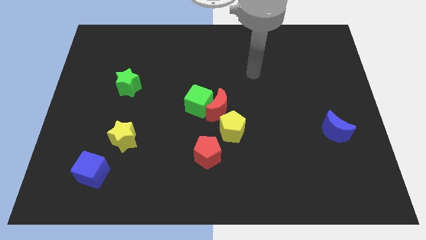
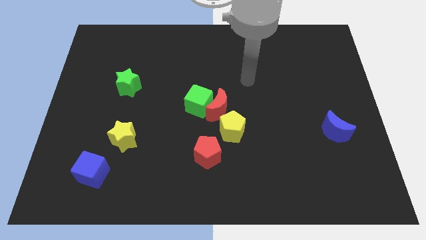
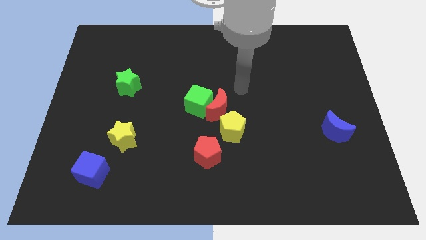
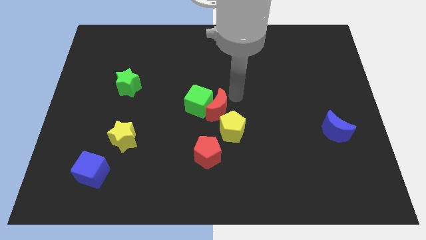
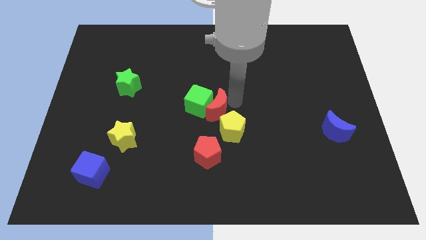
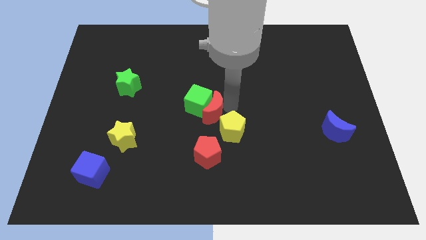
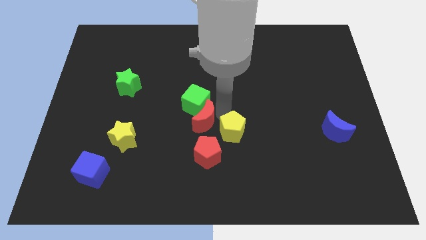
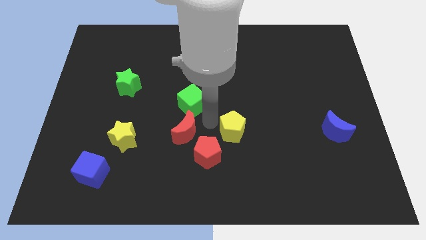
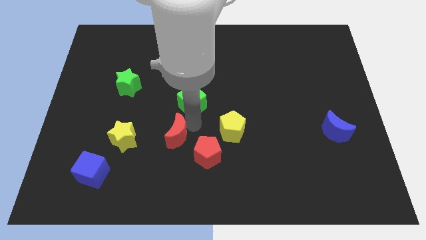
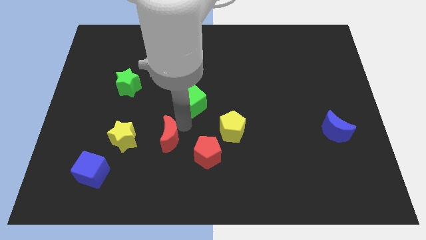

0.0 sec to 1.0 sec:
pull the green cube apart from the red moon

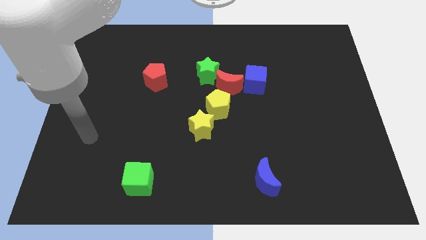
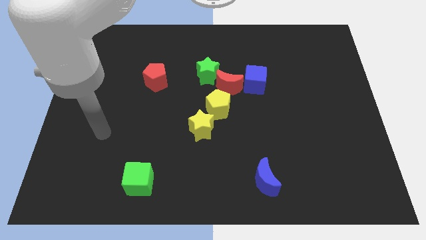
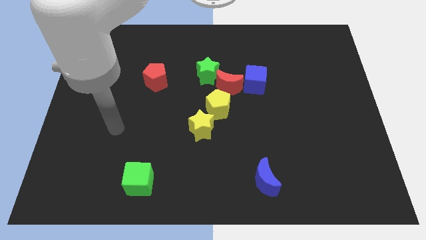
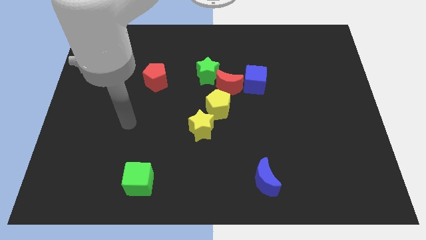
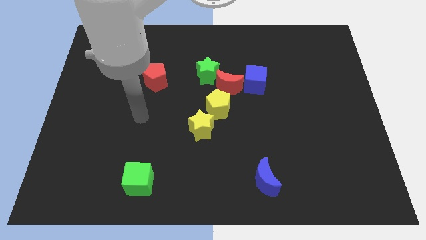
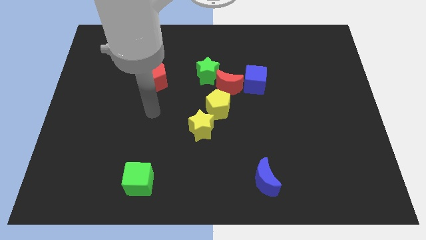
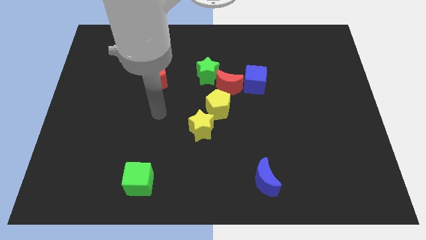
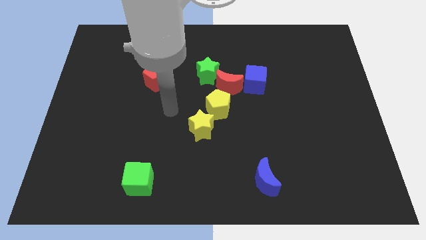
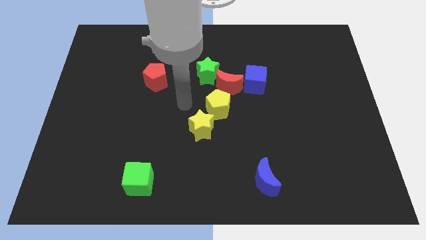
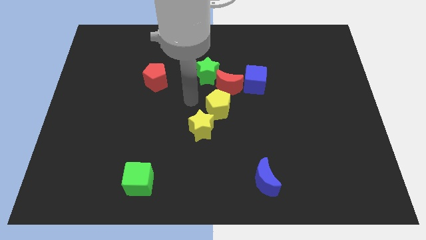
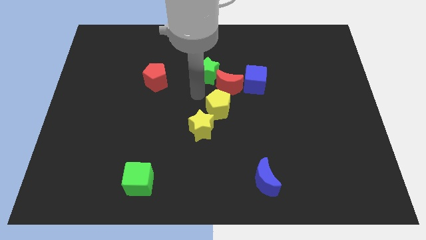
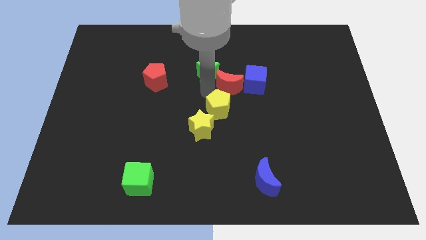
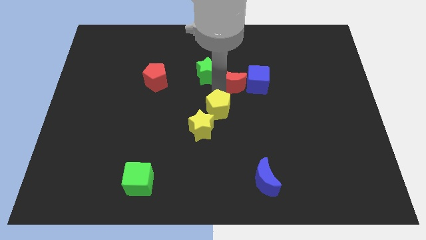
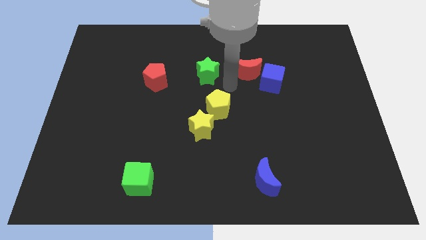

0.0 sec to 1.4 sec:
pull the green star apart from the red moon

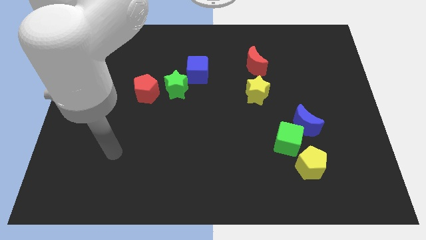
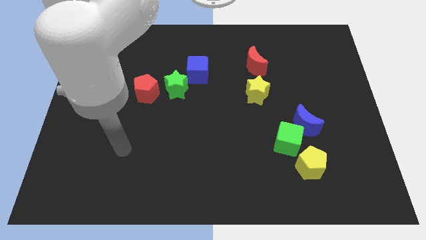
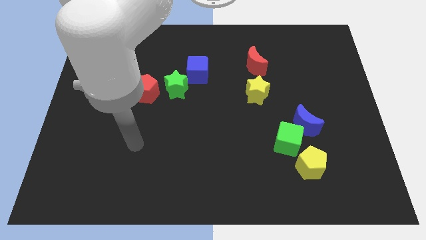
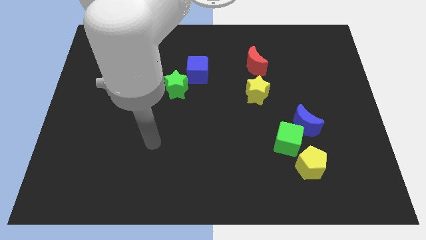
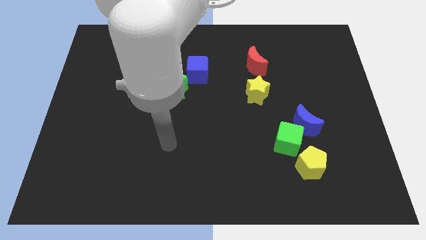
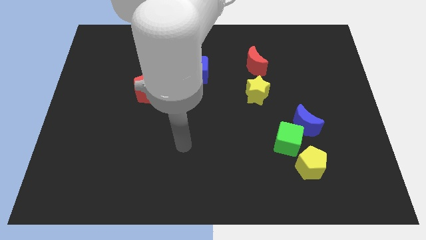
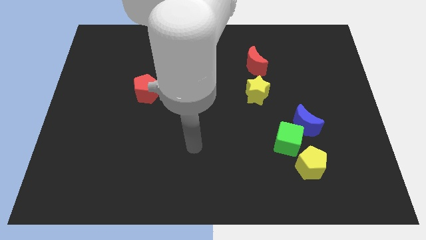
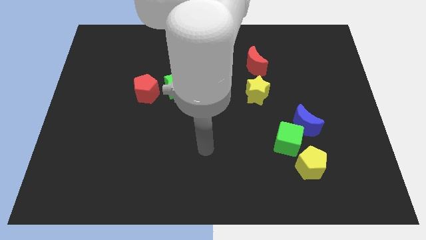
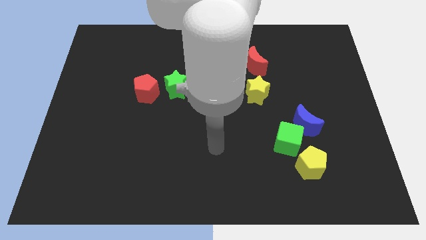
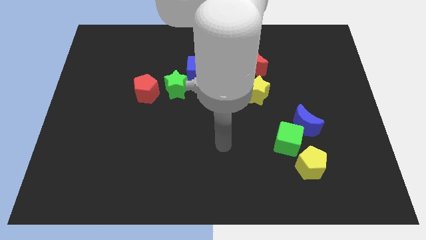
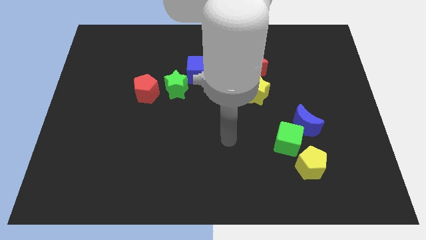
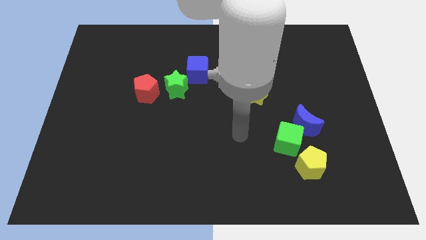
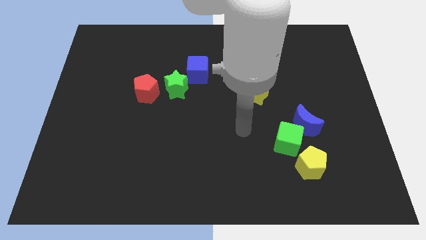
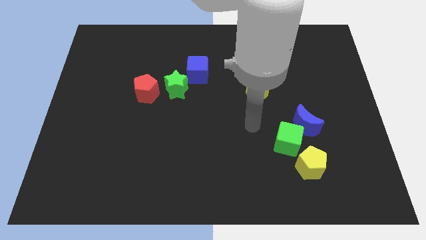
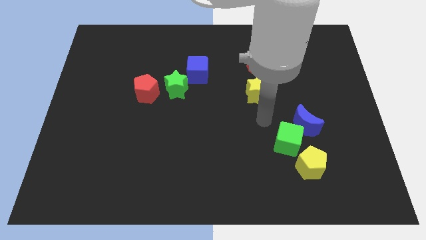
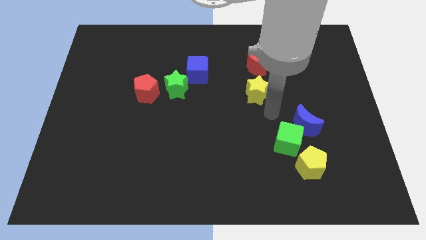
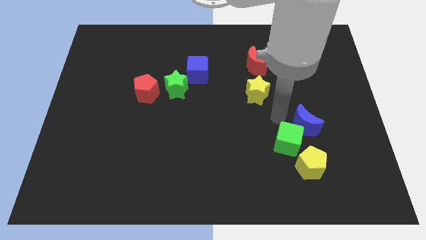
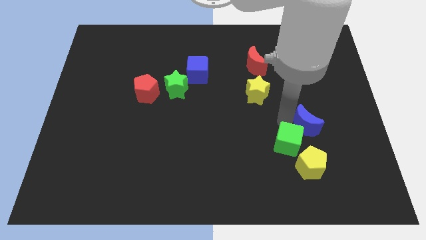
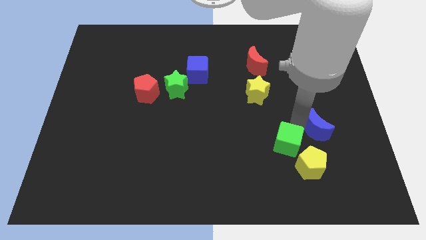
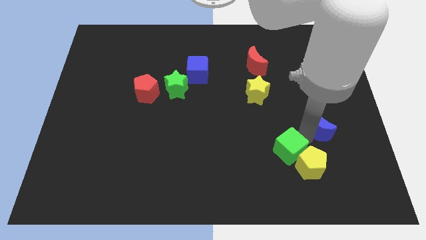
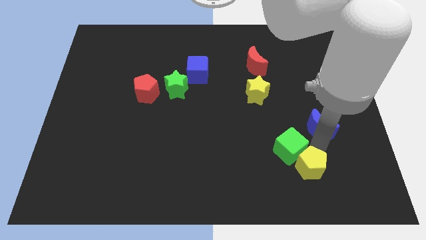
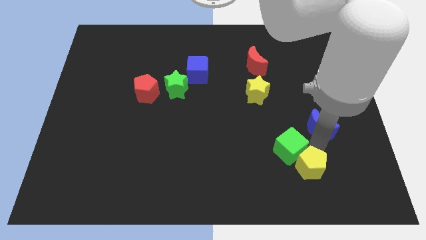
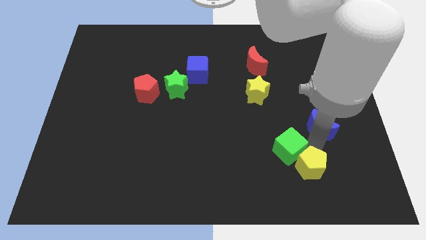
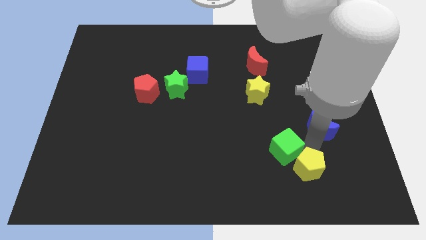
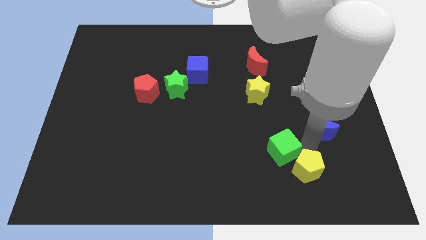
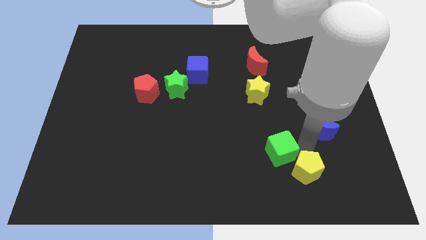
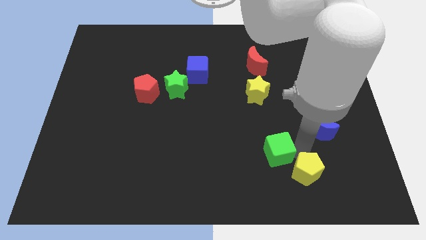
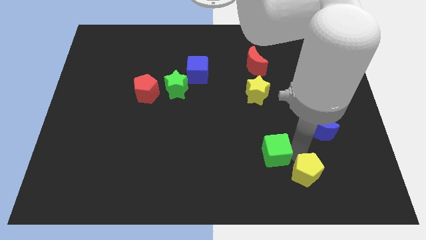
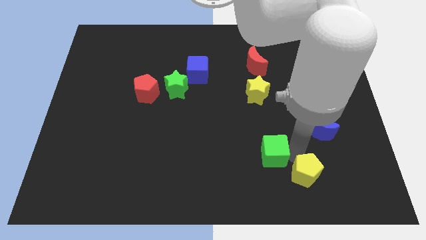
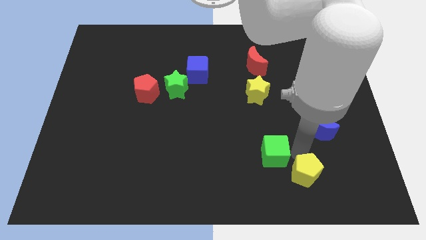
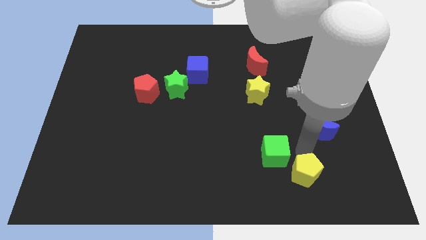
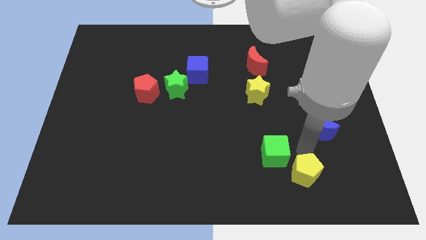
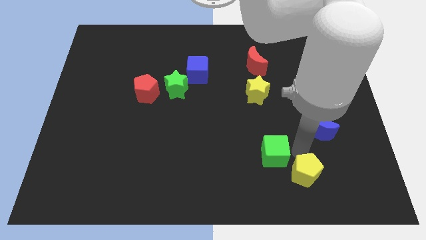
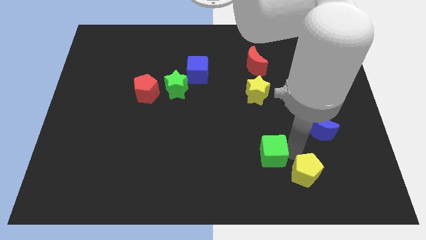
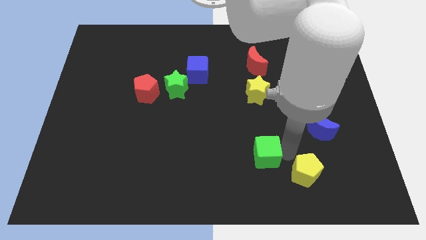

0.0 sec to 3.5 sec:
separate the green cube from the blue moon and yellow pentagon

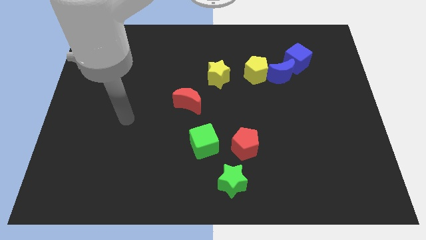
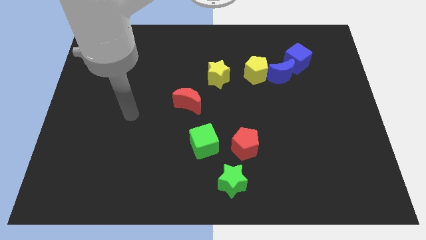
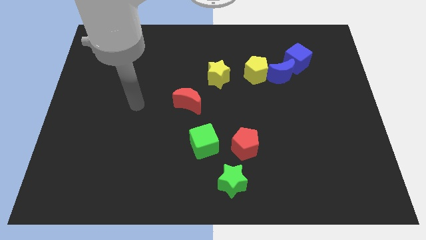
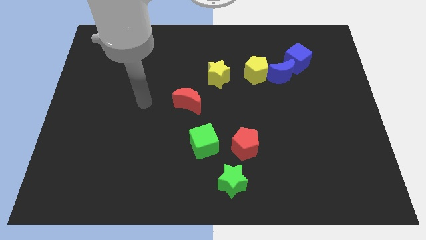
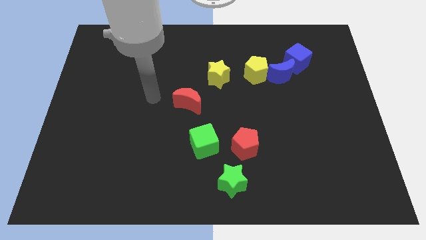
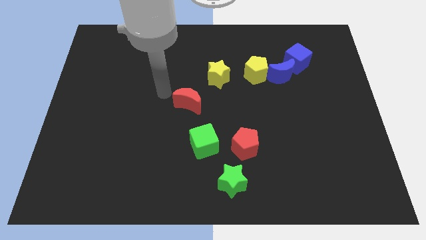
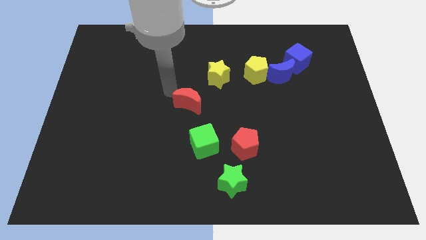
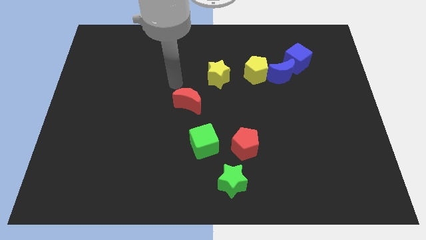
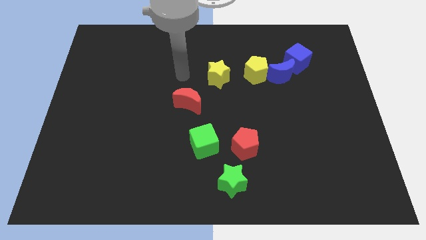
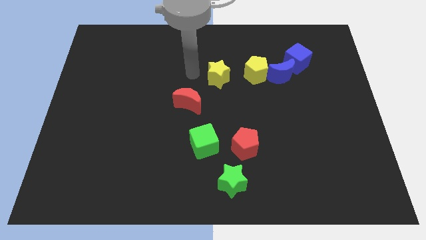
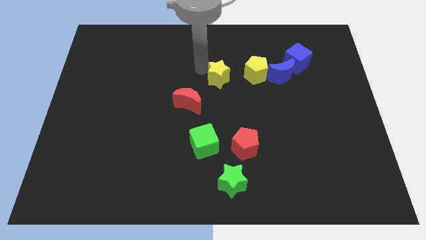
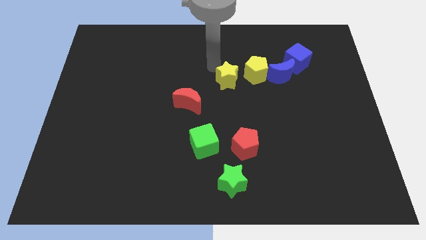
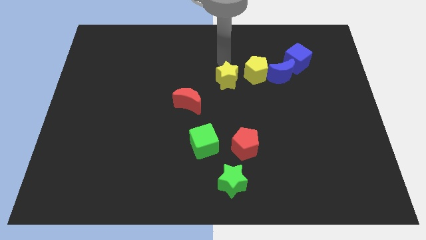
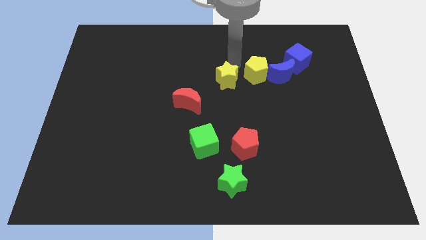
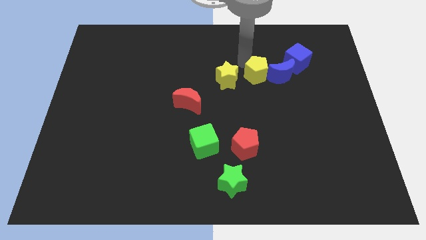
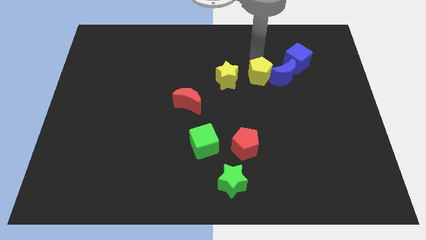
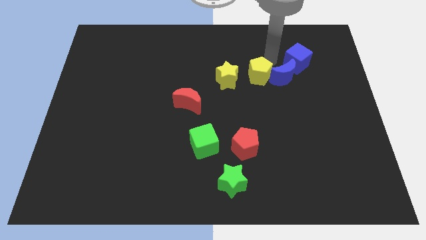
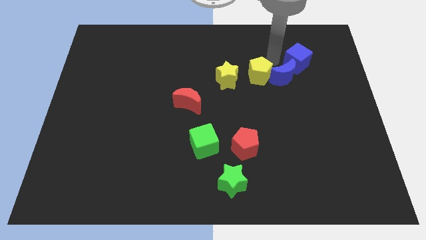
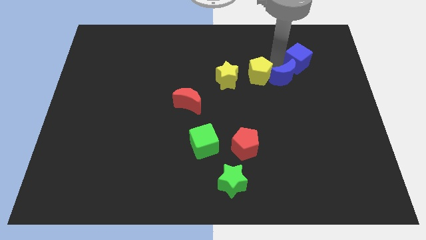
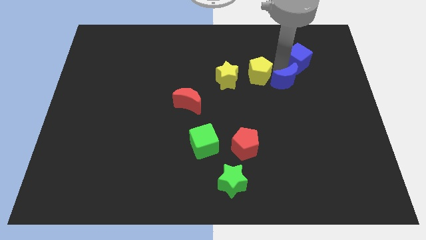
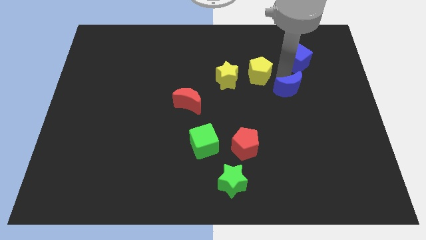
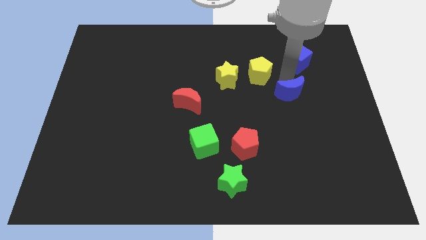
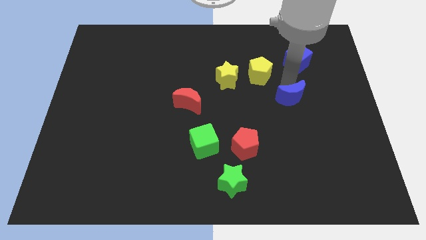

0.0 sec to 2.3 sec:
move the blue moon away from the yellow pentagon and blue cube

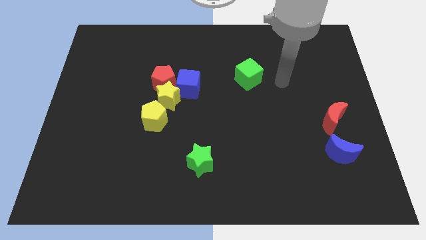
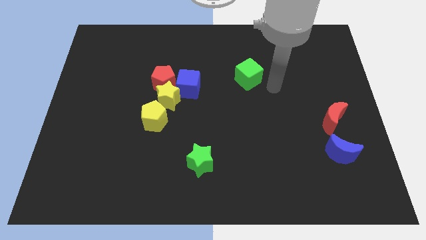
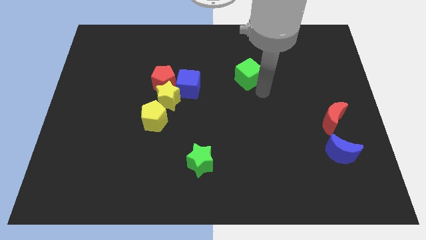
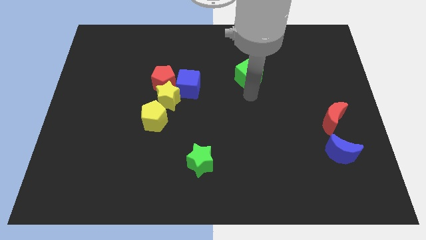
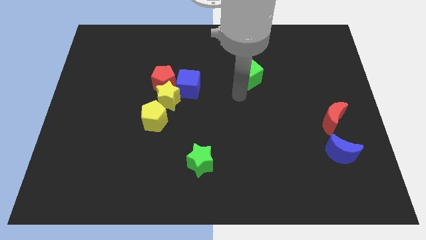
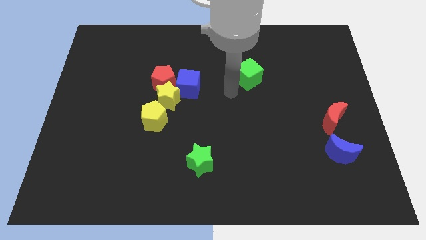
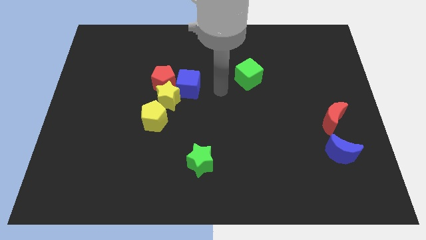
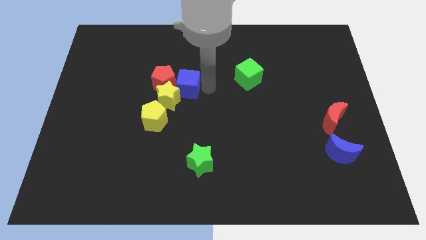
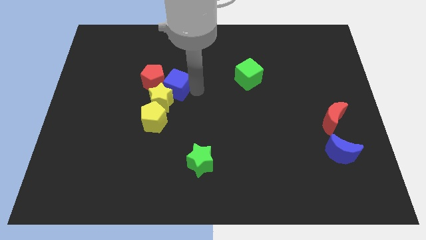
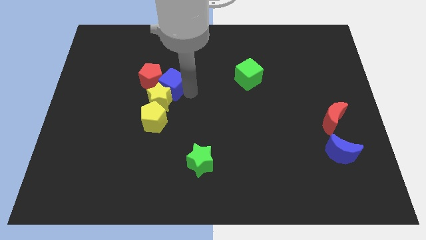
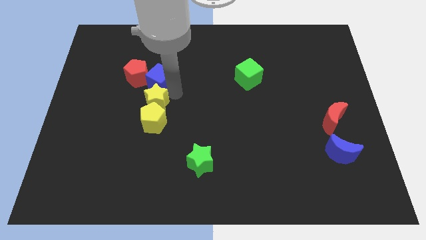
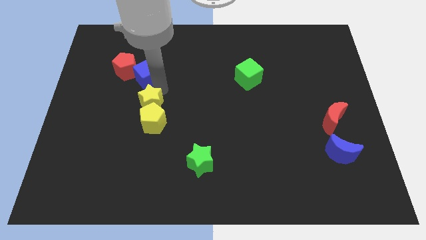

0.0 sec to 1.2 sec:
move the red pentagon away from the yellow star and blue cube
